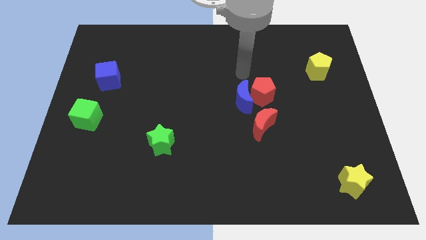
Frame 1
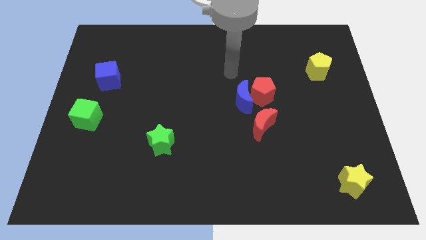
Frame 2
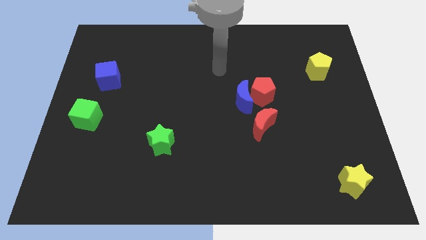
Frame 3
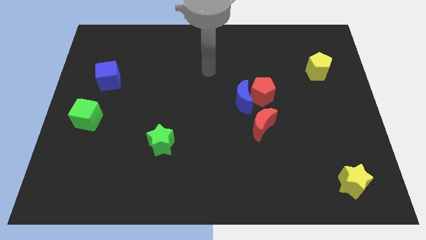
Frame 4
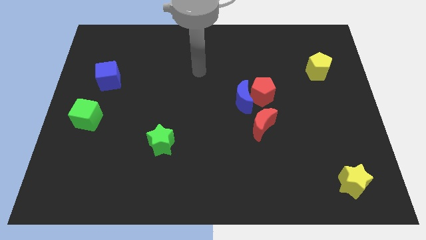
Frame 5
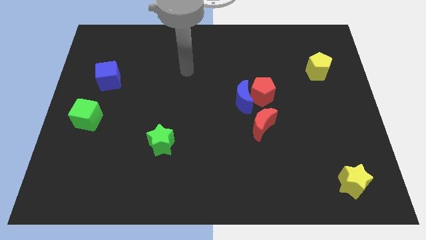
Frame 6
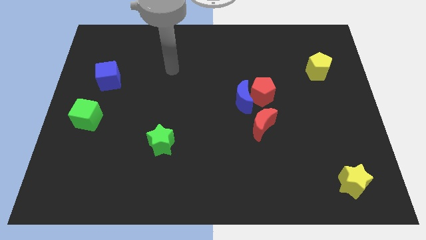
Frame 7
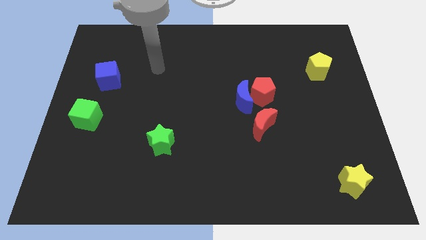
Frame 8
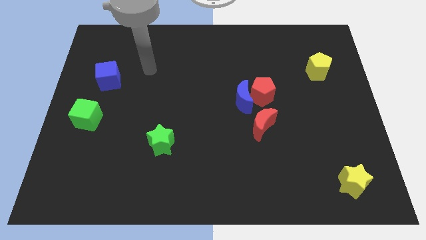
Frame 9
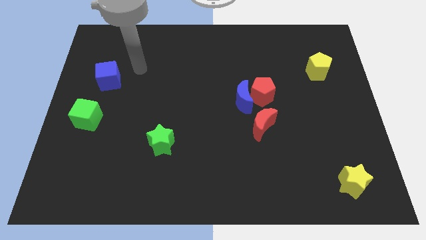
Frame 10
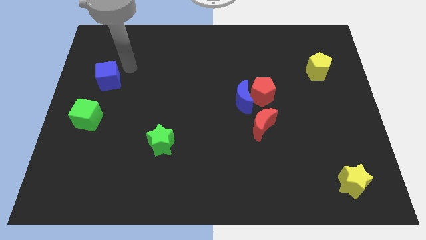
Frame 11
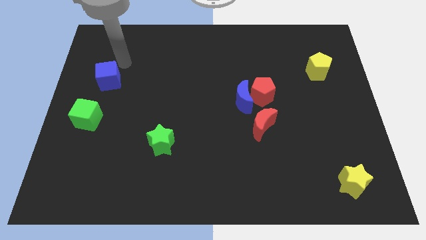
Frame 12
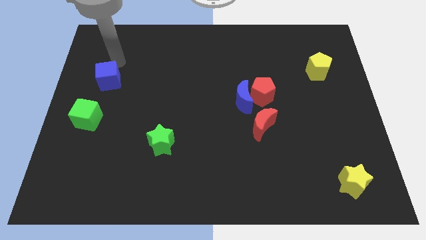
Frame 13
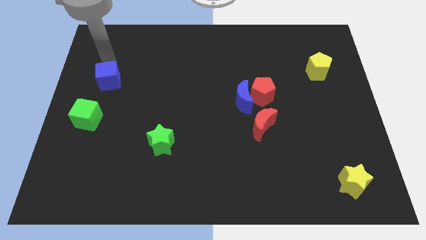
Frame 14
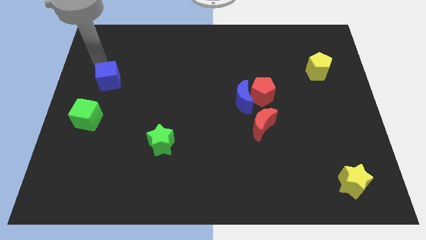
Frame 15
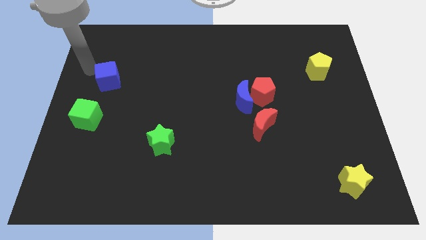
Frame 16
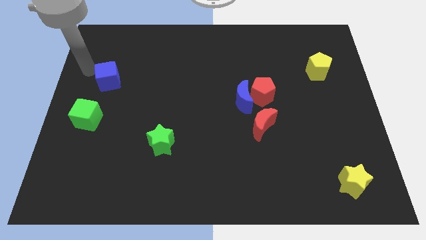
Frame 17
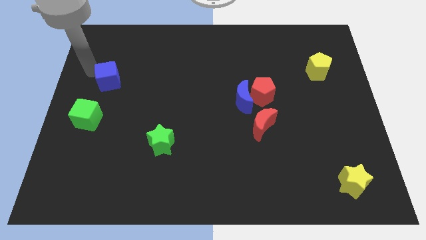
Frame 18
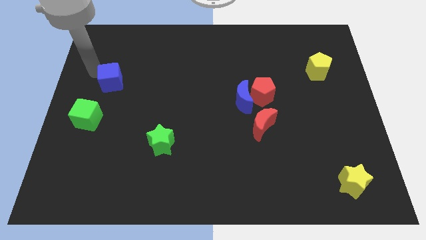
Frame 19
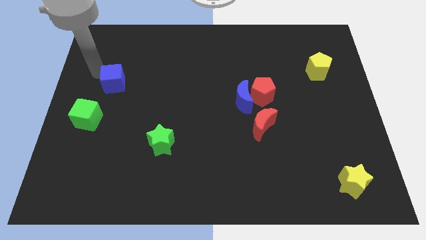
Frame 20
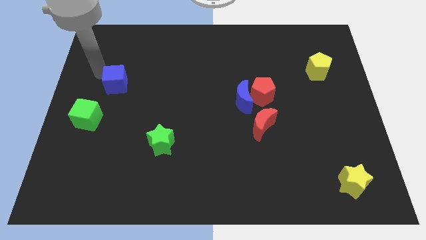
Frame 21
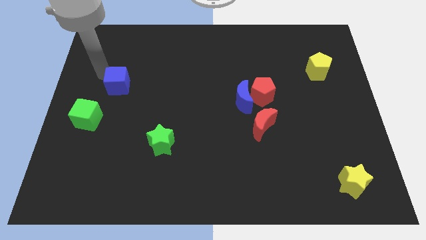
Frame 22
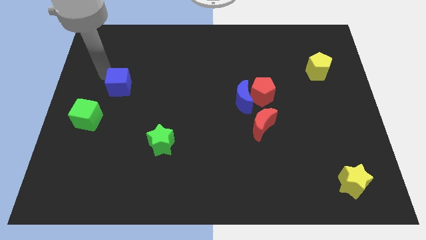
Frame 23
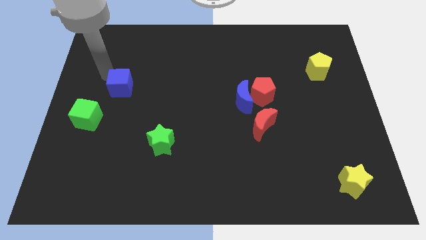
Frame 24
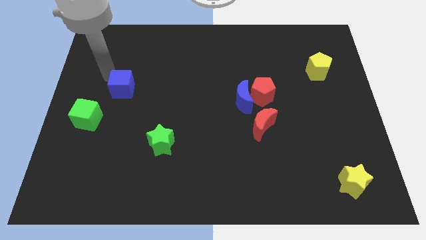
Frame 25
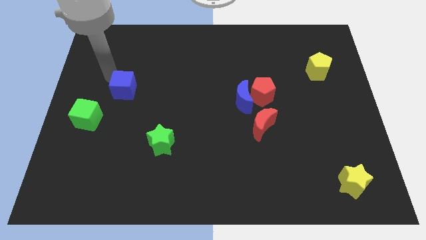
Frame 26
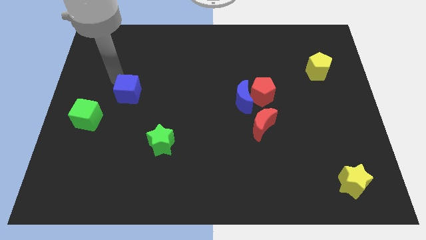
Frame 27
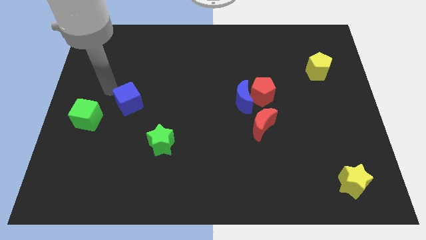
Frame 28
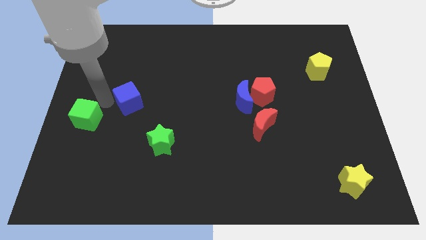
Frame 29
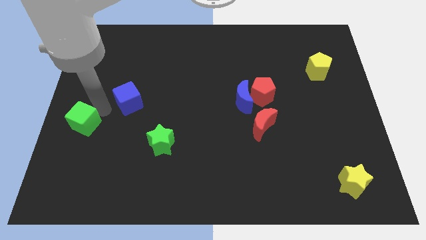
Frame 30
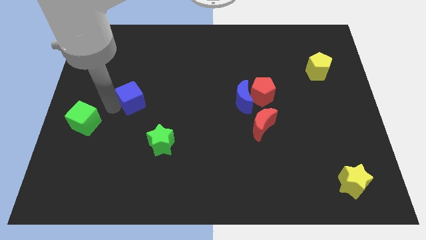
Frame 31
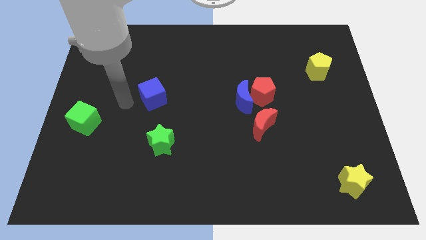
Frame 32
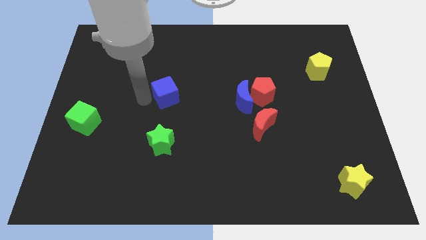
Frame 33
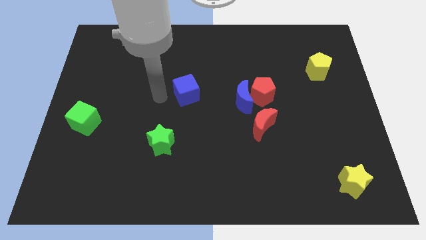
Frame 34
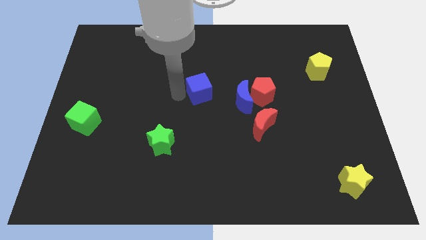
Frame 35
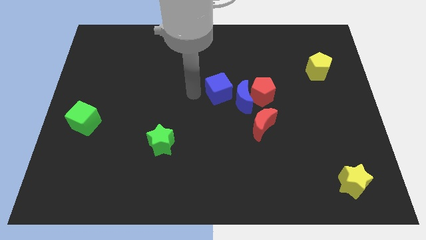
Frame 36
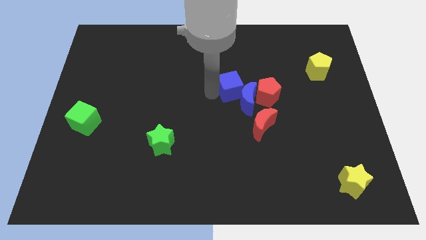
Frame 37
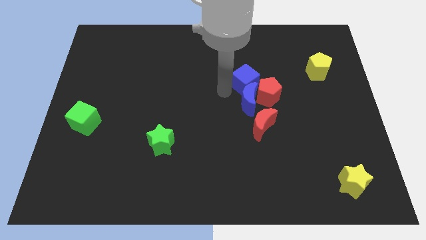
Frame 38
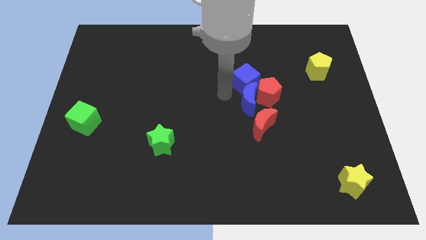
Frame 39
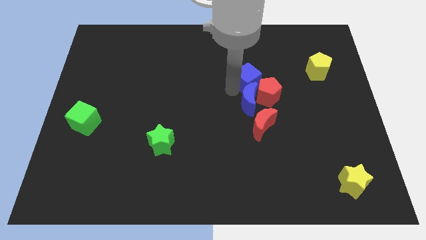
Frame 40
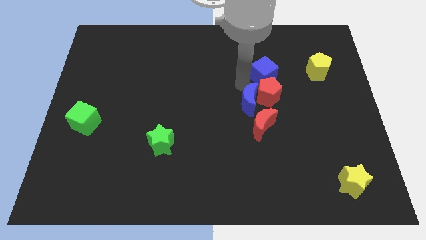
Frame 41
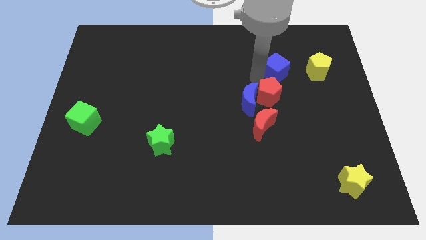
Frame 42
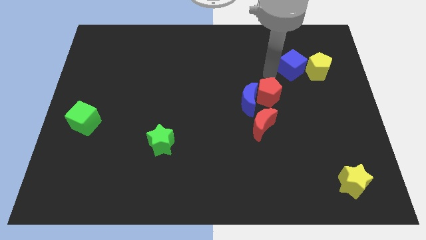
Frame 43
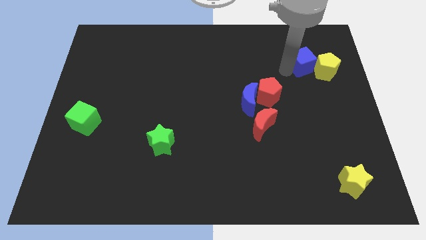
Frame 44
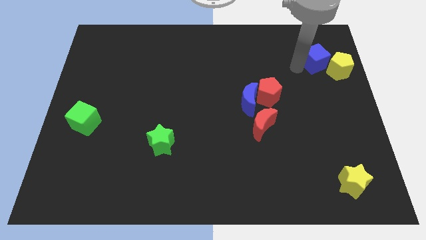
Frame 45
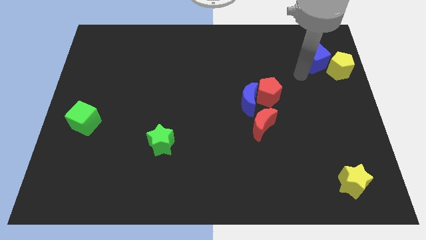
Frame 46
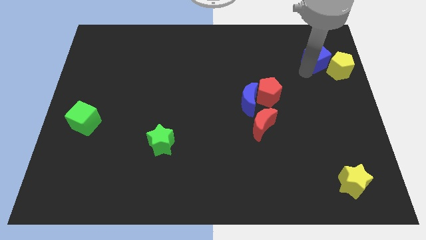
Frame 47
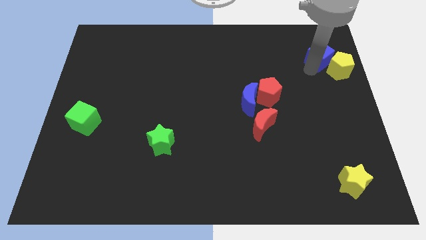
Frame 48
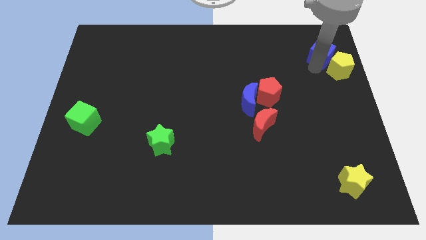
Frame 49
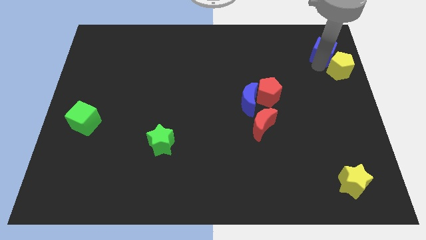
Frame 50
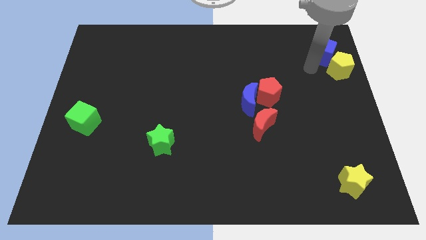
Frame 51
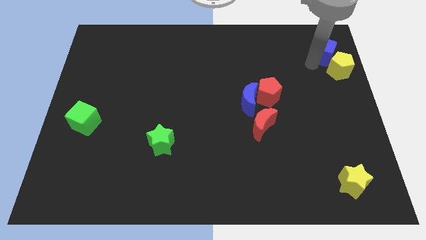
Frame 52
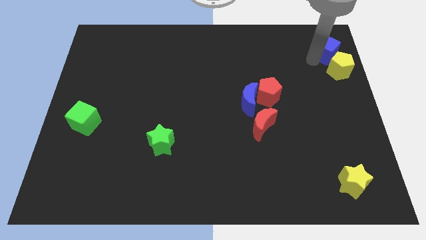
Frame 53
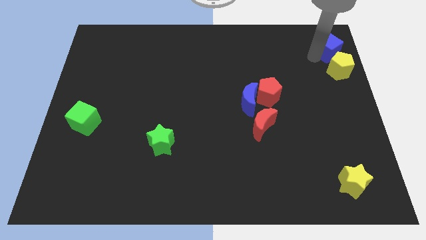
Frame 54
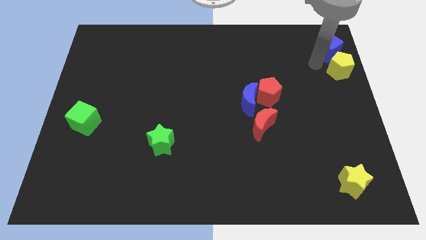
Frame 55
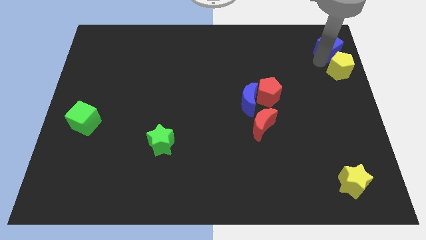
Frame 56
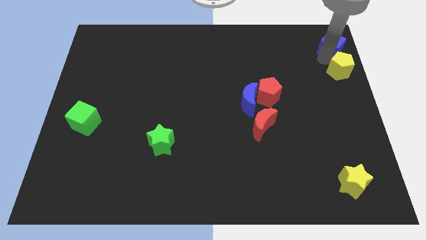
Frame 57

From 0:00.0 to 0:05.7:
push the blue cube to the top right

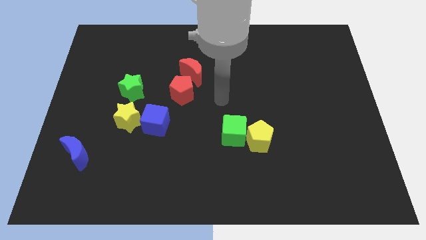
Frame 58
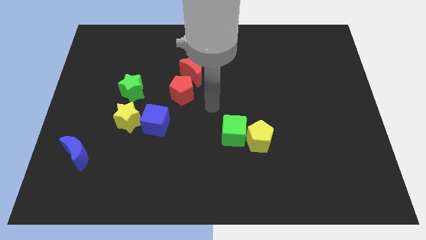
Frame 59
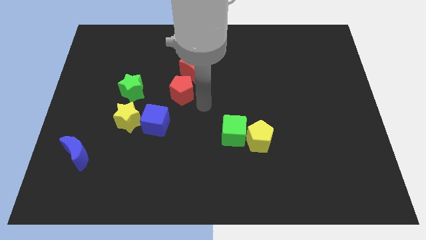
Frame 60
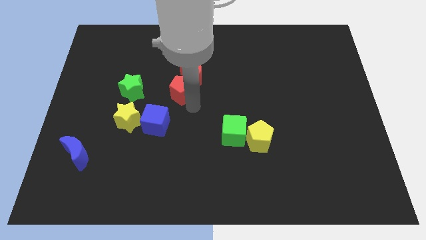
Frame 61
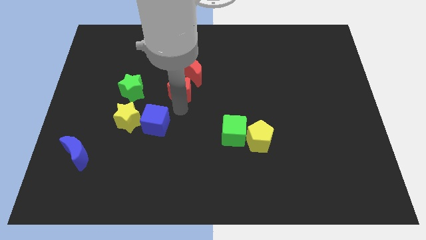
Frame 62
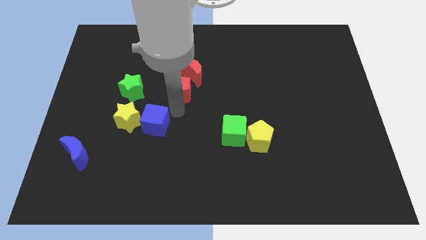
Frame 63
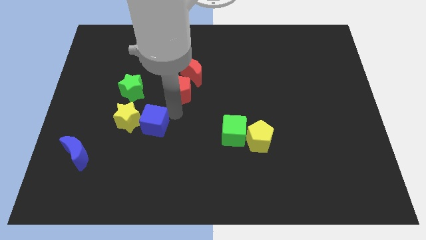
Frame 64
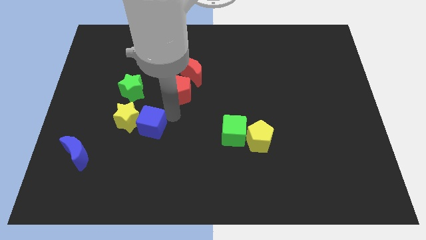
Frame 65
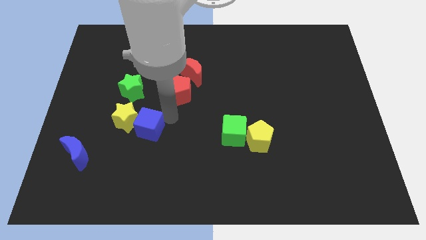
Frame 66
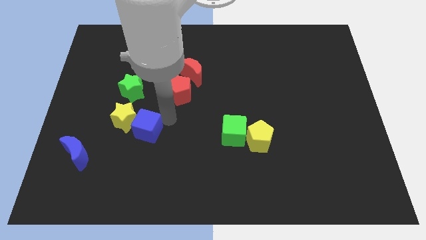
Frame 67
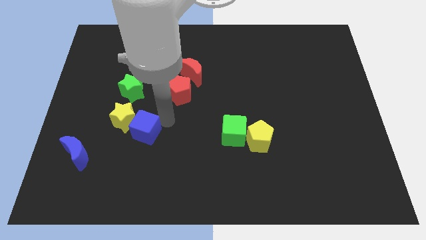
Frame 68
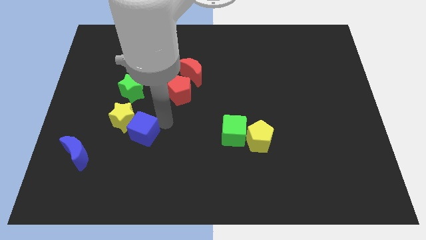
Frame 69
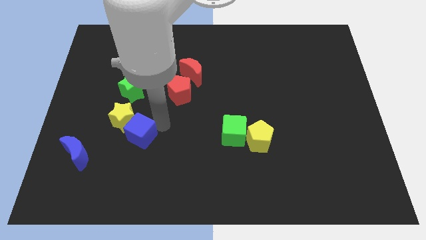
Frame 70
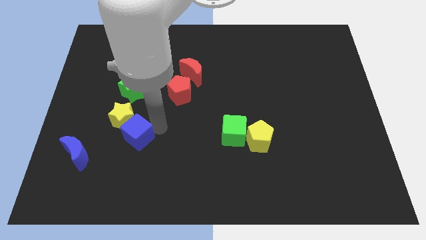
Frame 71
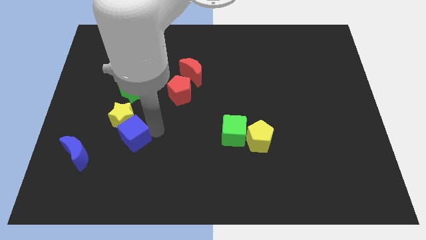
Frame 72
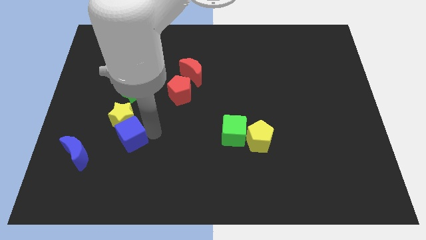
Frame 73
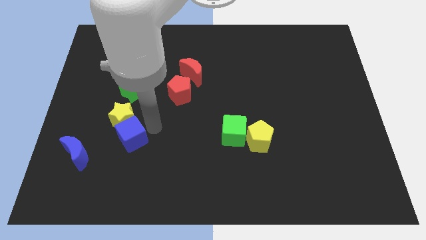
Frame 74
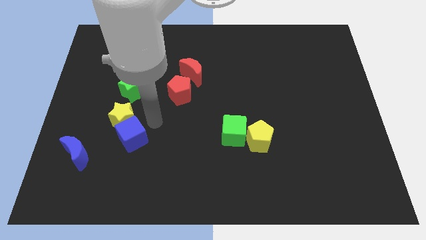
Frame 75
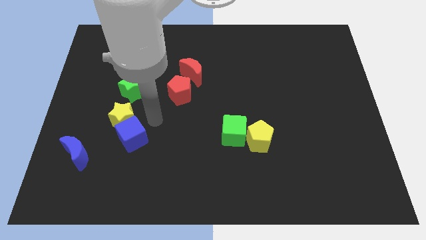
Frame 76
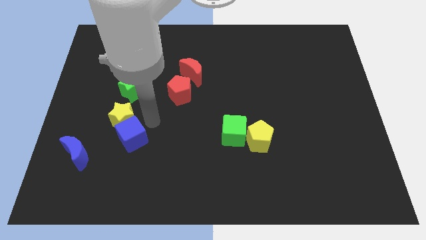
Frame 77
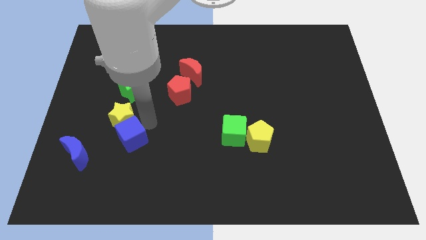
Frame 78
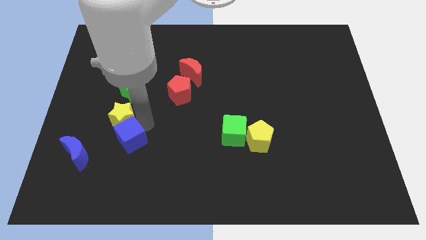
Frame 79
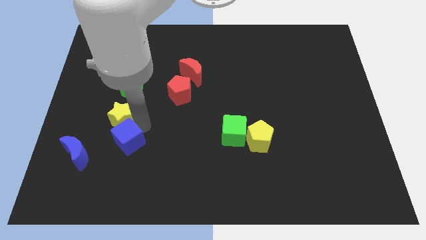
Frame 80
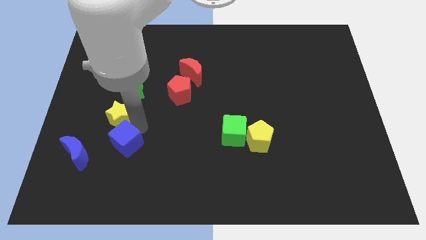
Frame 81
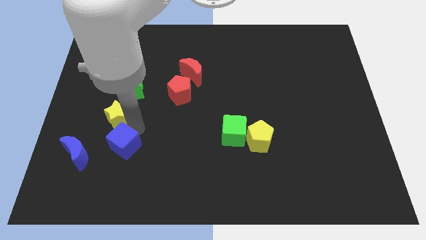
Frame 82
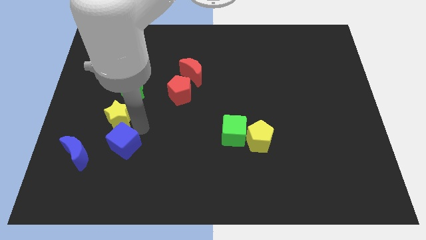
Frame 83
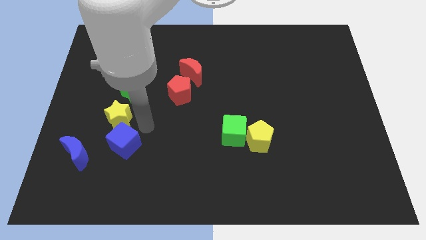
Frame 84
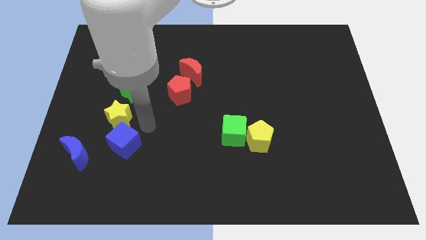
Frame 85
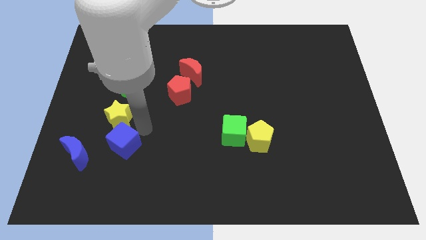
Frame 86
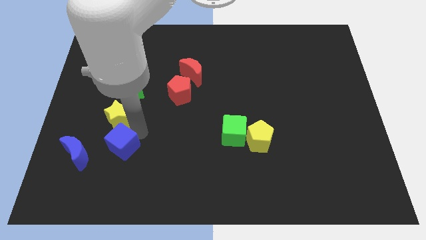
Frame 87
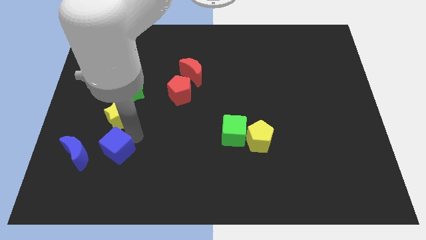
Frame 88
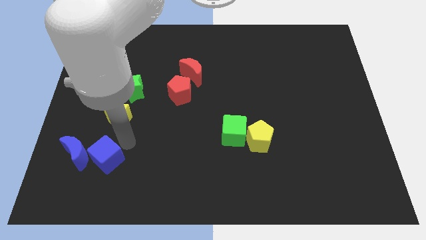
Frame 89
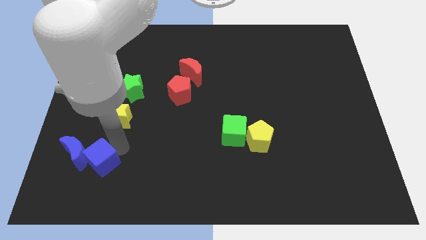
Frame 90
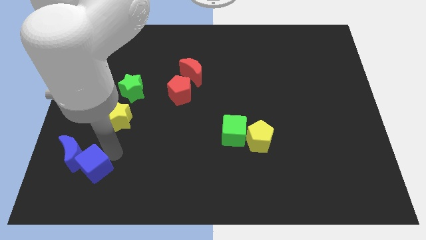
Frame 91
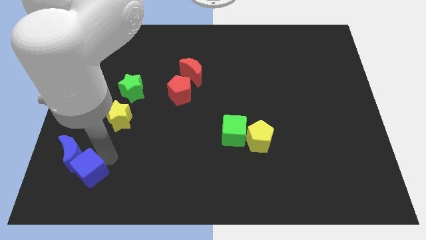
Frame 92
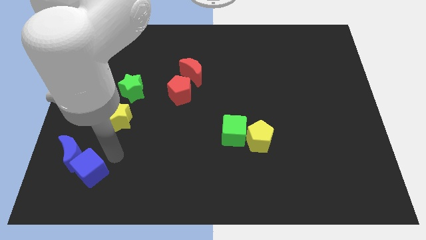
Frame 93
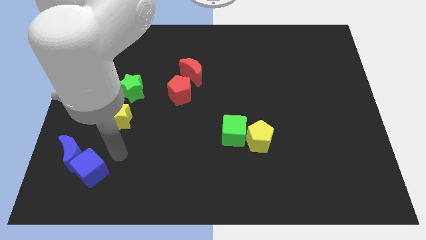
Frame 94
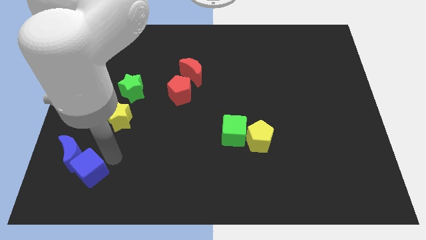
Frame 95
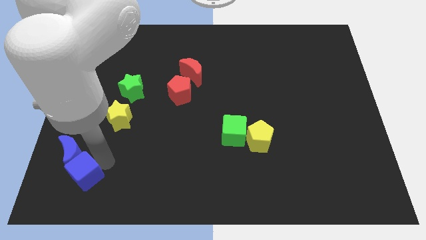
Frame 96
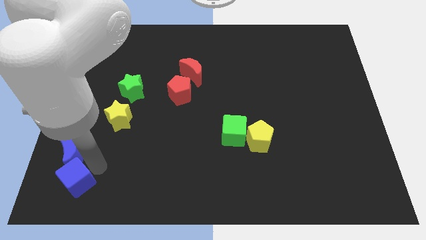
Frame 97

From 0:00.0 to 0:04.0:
slide the blue cube to the bottom left
